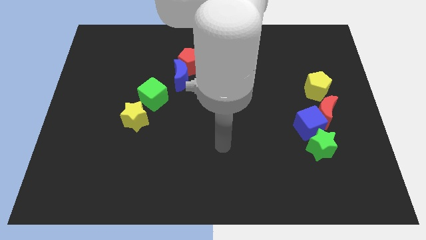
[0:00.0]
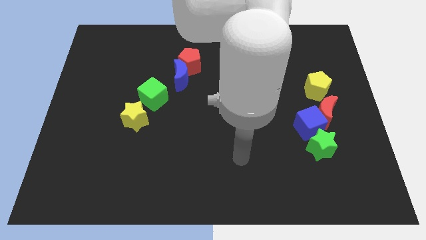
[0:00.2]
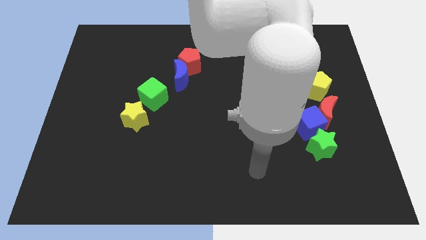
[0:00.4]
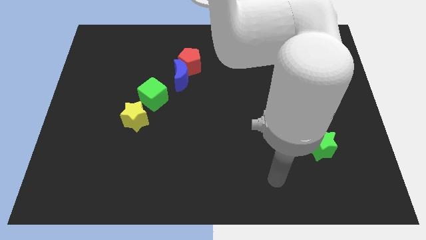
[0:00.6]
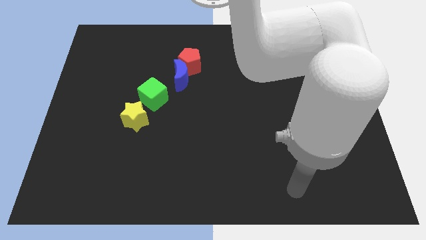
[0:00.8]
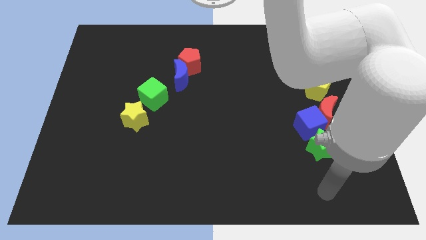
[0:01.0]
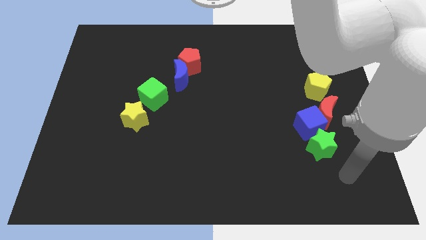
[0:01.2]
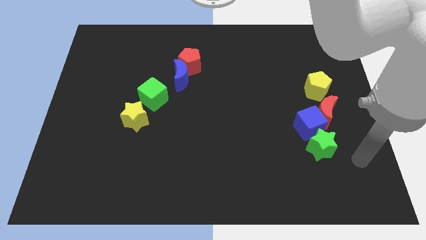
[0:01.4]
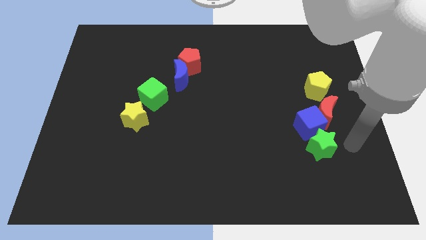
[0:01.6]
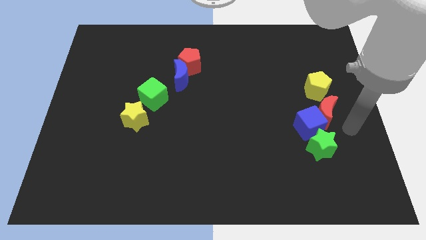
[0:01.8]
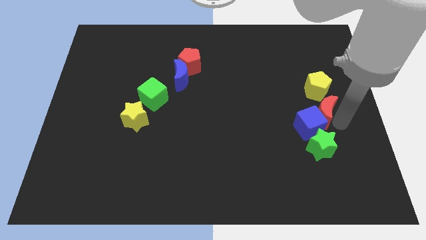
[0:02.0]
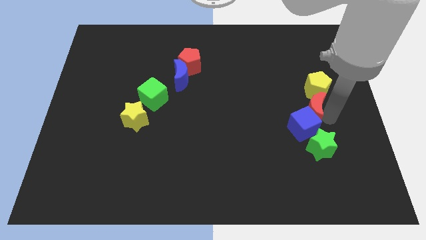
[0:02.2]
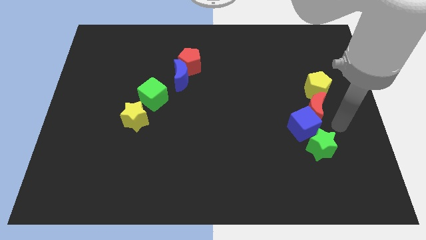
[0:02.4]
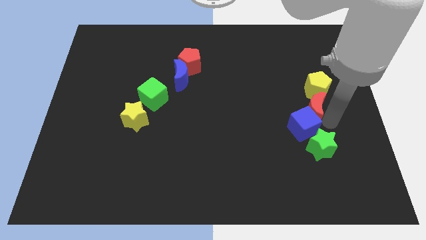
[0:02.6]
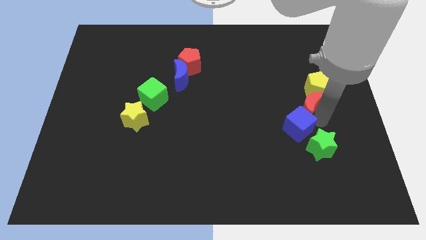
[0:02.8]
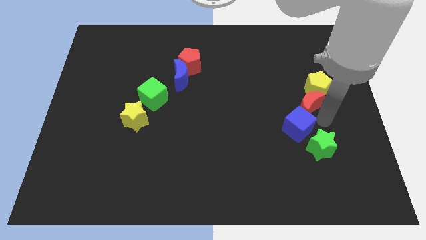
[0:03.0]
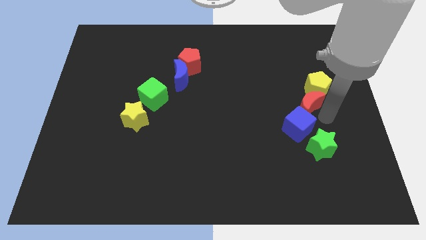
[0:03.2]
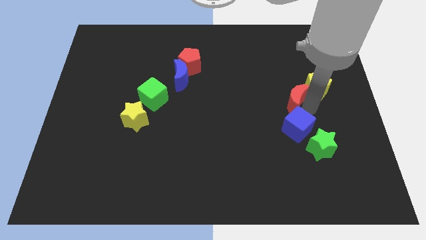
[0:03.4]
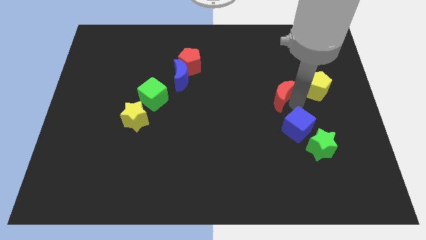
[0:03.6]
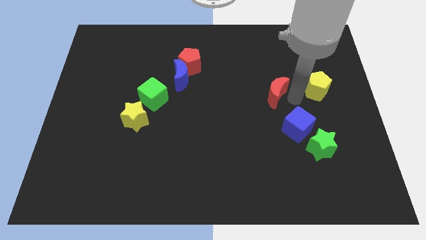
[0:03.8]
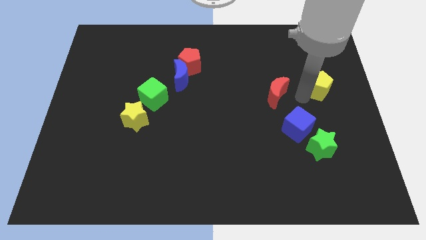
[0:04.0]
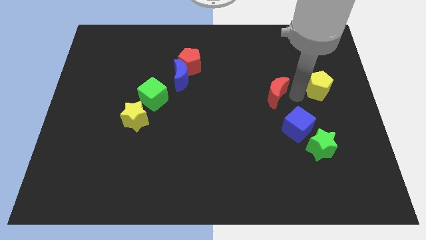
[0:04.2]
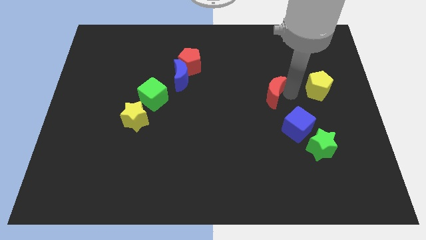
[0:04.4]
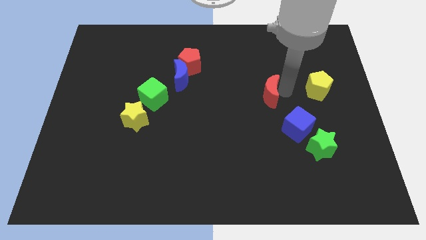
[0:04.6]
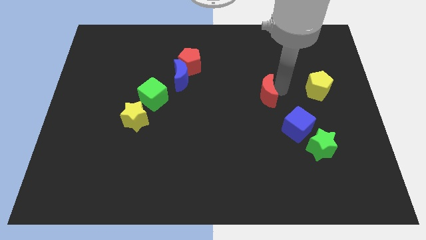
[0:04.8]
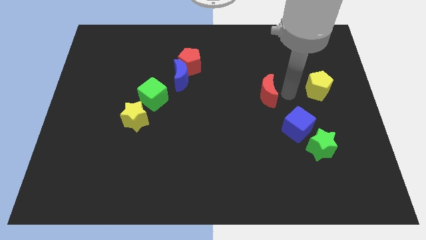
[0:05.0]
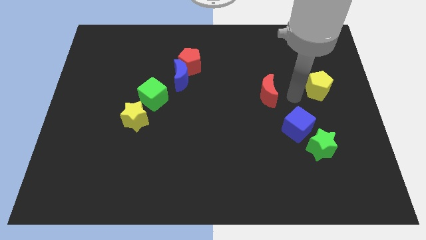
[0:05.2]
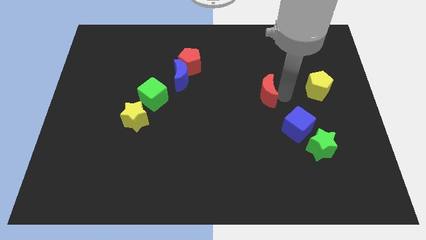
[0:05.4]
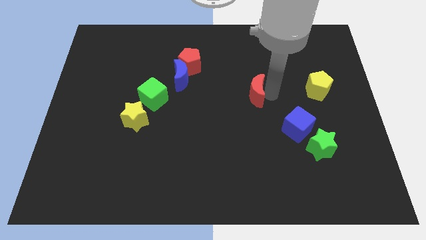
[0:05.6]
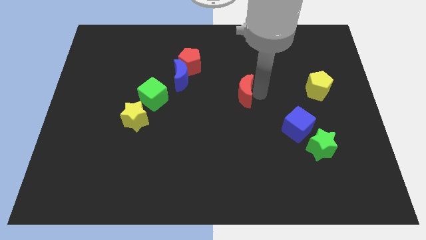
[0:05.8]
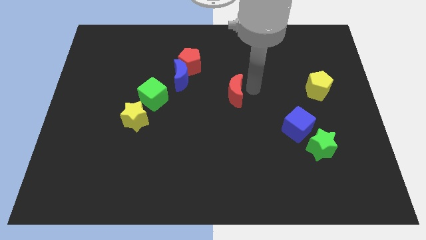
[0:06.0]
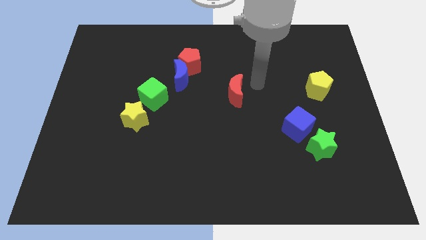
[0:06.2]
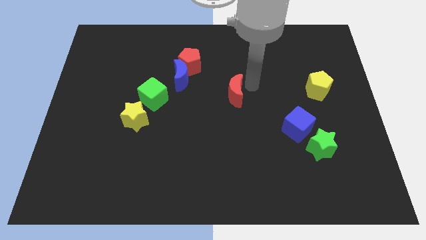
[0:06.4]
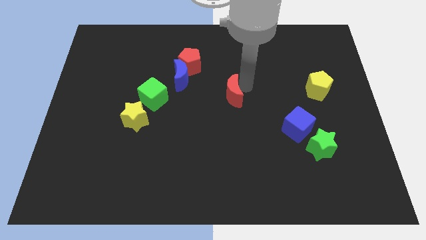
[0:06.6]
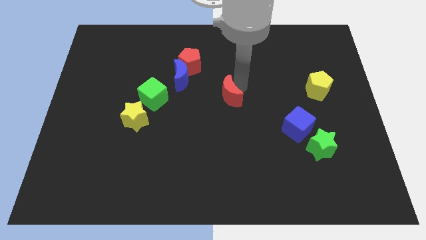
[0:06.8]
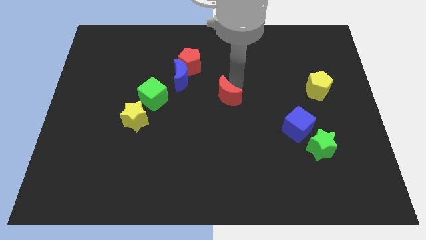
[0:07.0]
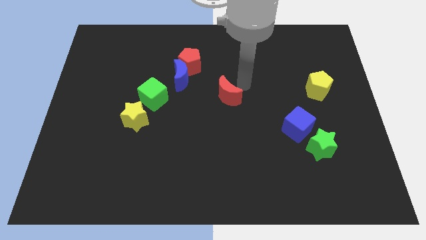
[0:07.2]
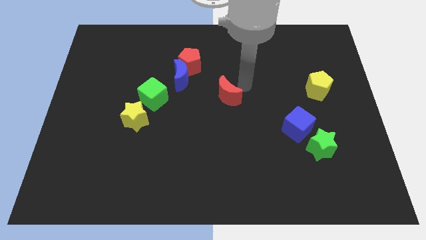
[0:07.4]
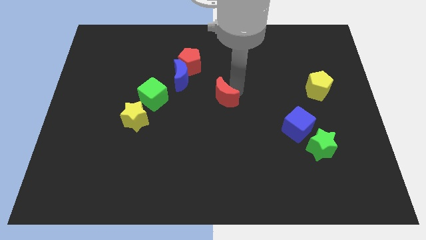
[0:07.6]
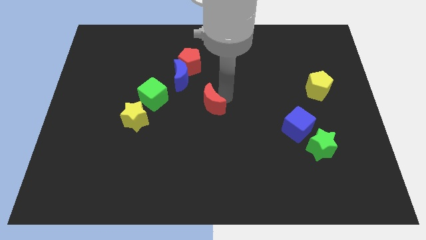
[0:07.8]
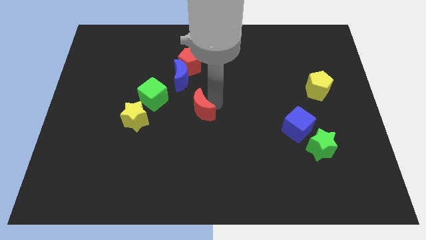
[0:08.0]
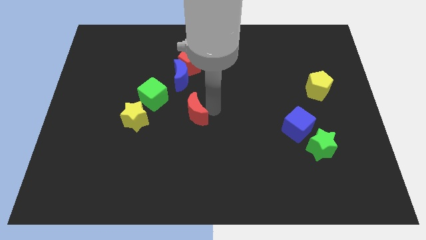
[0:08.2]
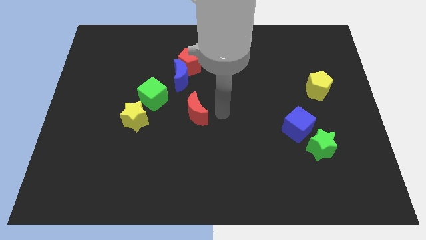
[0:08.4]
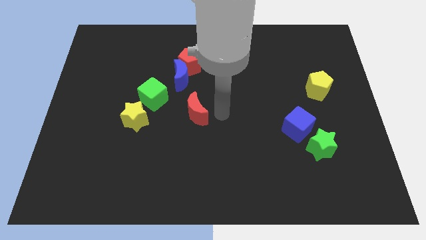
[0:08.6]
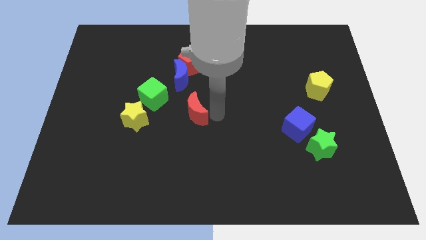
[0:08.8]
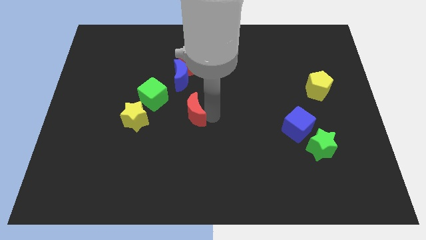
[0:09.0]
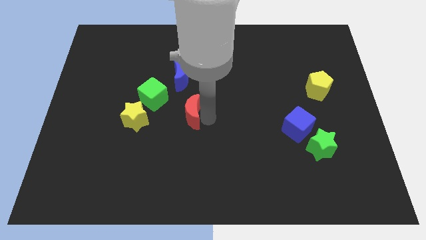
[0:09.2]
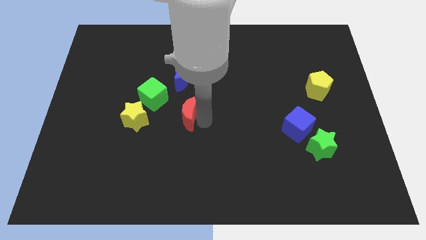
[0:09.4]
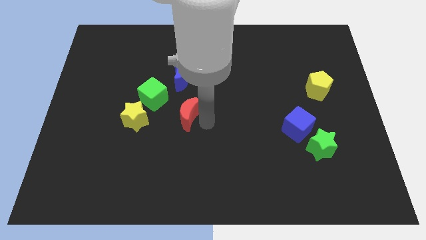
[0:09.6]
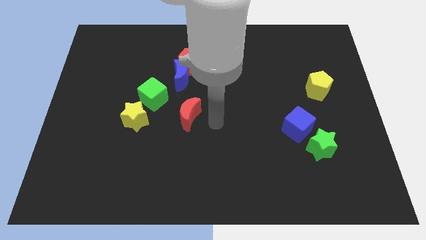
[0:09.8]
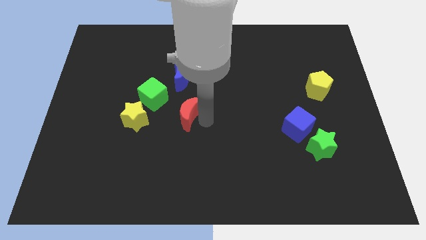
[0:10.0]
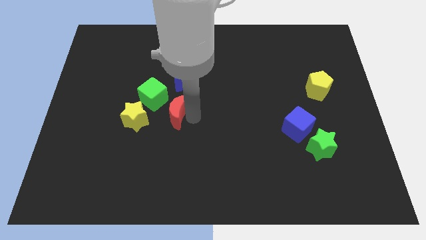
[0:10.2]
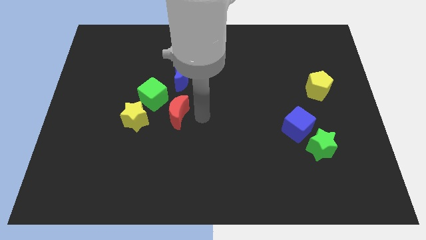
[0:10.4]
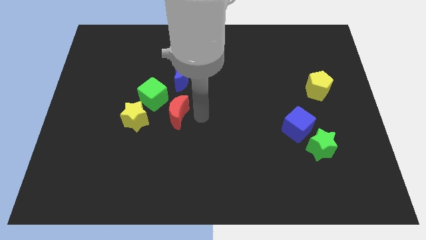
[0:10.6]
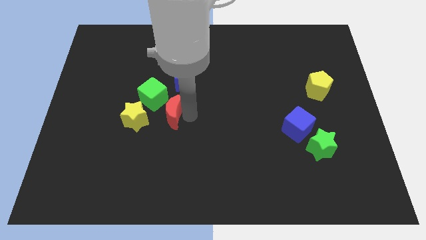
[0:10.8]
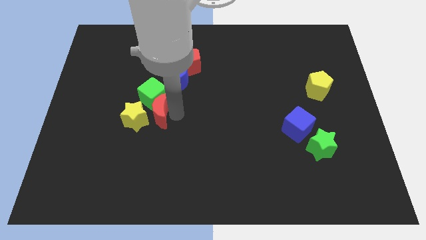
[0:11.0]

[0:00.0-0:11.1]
put the red moon next to the yellow star

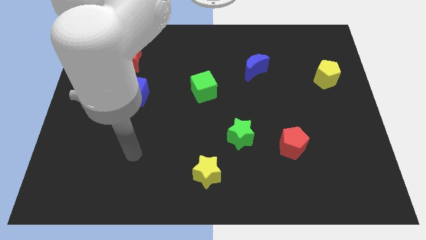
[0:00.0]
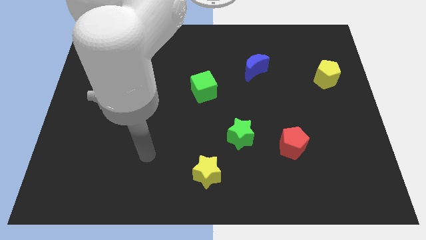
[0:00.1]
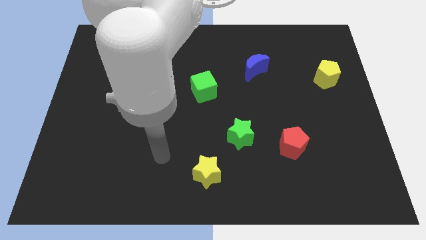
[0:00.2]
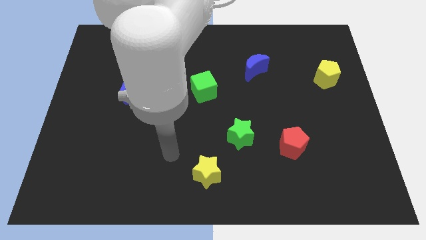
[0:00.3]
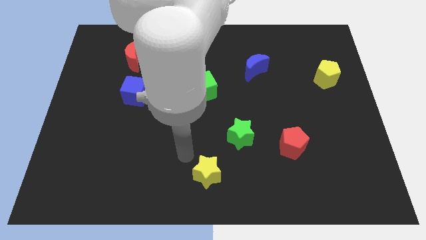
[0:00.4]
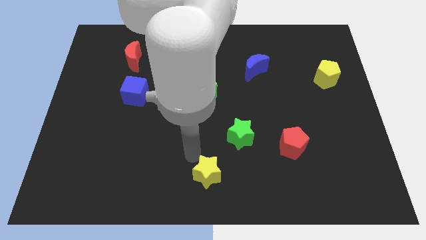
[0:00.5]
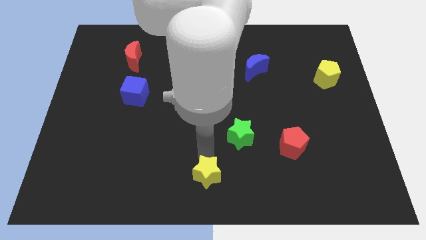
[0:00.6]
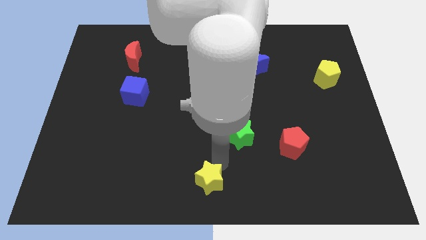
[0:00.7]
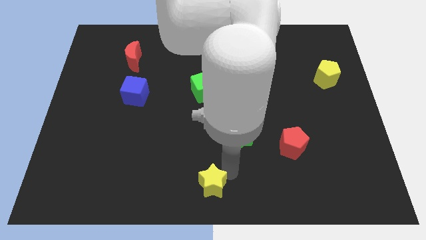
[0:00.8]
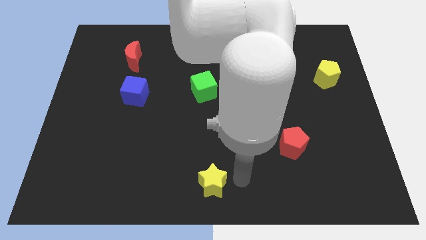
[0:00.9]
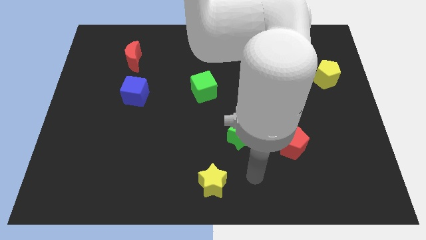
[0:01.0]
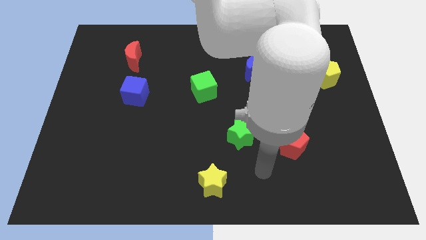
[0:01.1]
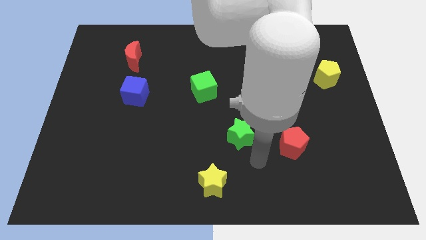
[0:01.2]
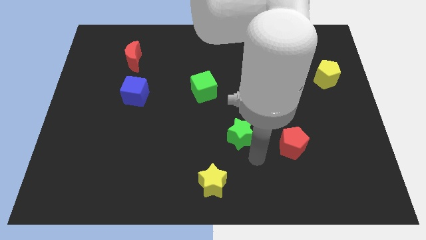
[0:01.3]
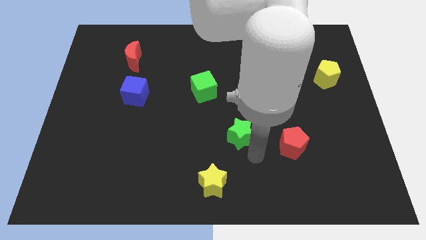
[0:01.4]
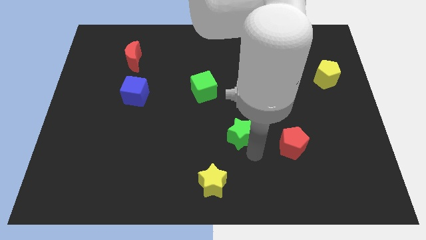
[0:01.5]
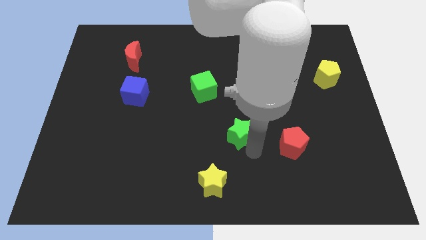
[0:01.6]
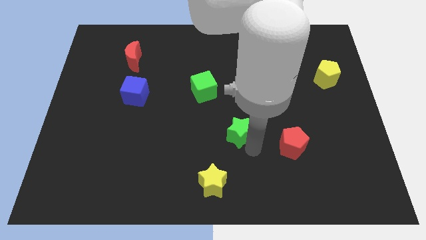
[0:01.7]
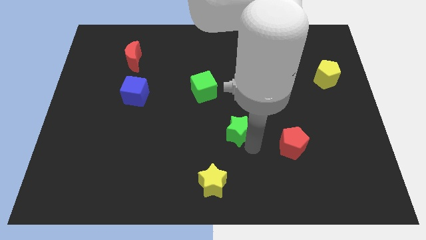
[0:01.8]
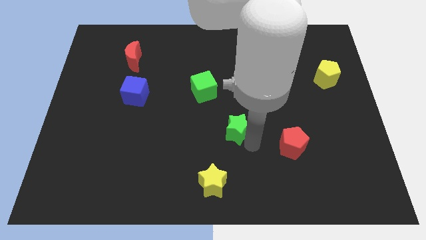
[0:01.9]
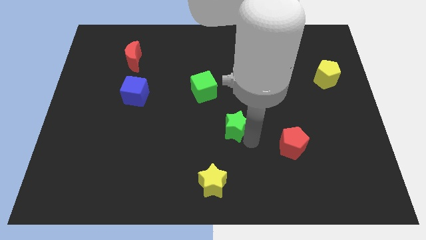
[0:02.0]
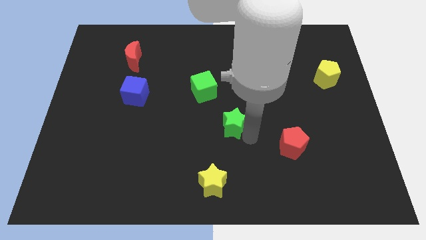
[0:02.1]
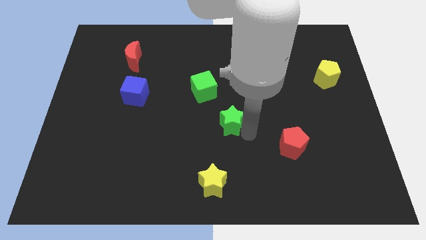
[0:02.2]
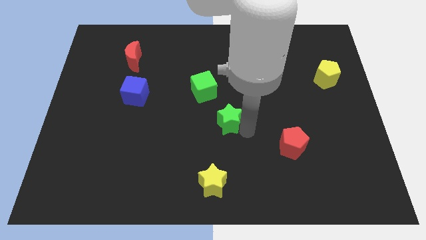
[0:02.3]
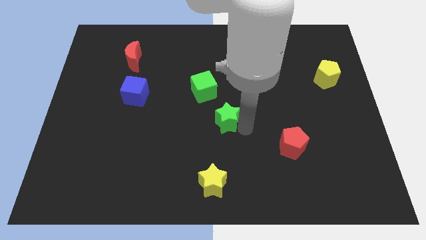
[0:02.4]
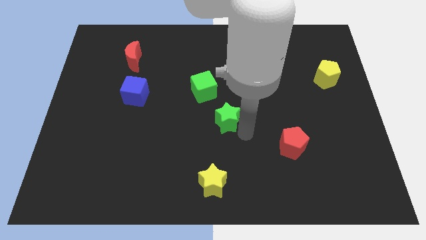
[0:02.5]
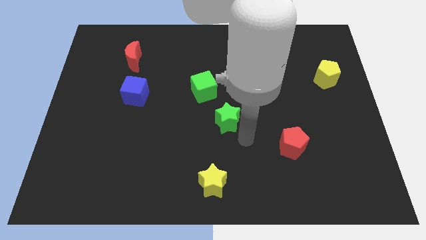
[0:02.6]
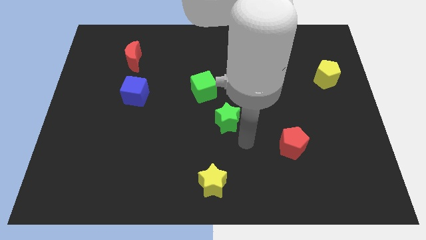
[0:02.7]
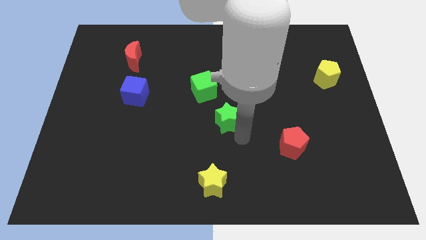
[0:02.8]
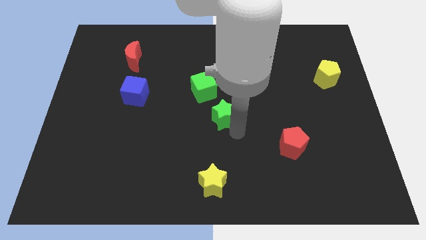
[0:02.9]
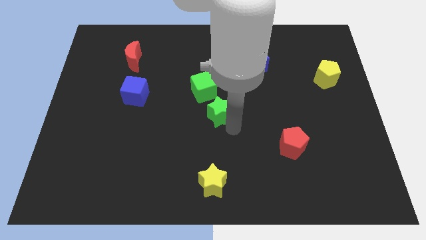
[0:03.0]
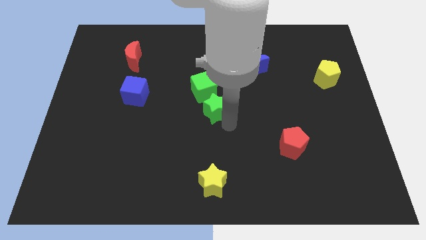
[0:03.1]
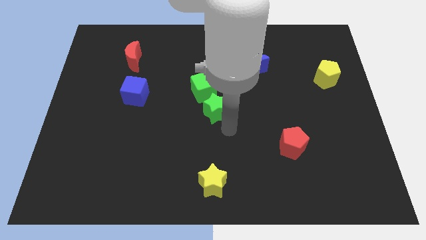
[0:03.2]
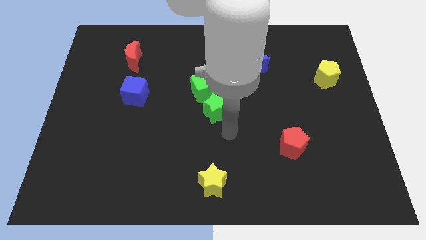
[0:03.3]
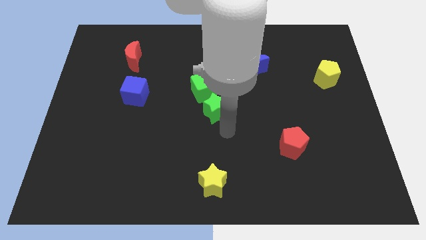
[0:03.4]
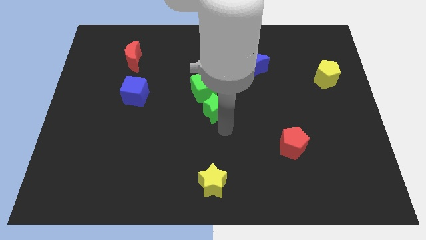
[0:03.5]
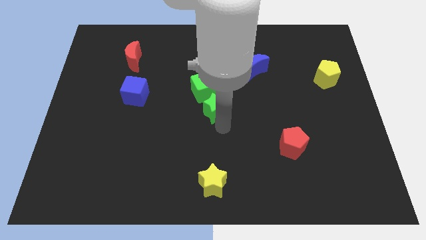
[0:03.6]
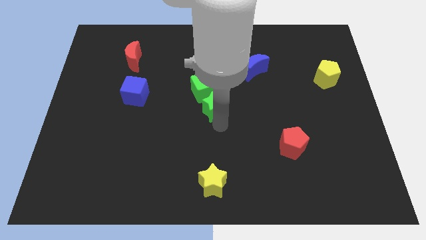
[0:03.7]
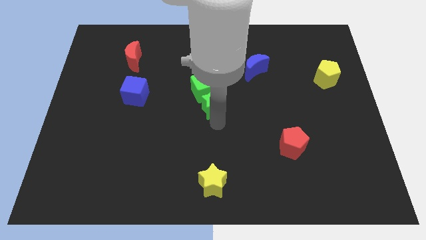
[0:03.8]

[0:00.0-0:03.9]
push the green star to the green cube
